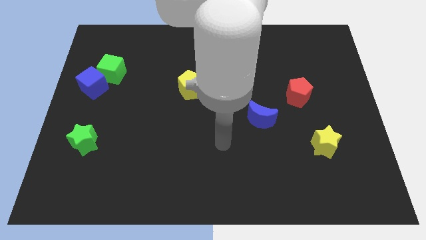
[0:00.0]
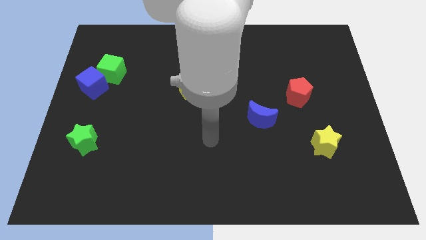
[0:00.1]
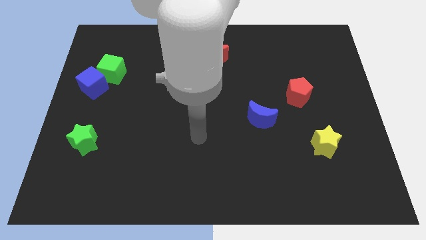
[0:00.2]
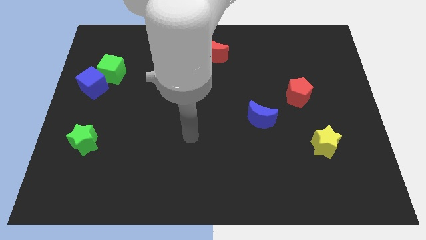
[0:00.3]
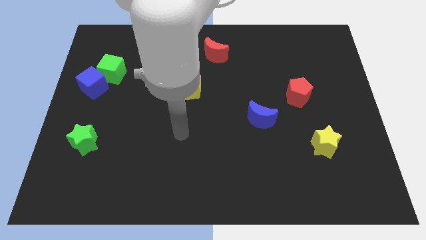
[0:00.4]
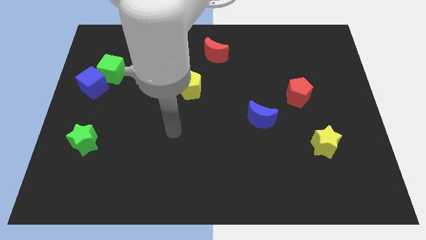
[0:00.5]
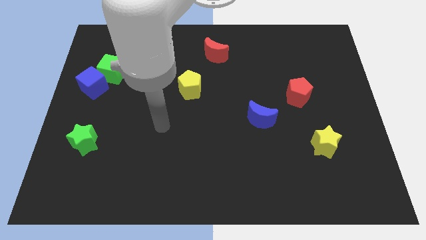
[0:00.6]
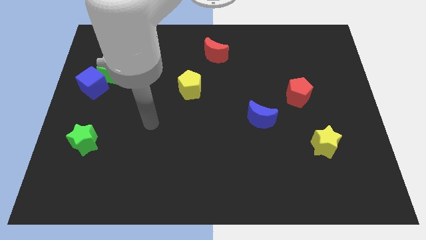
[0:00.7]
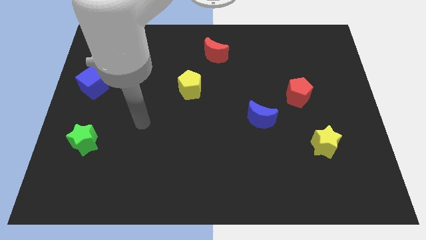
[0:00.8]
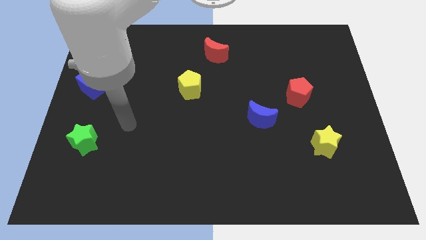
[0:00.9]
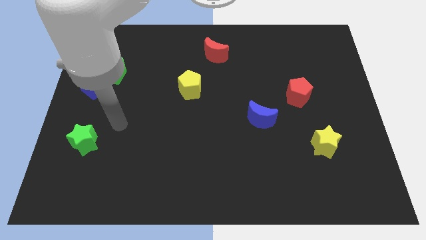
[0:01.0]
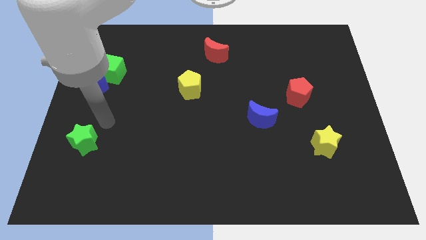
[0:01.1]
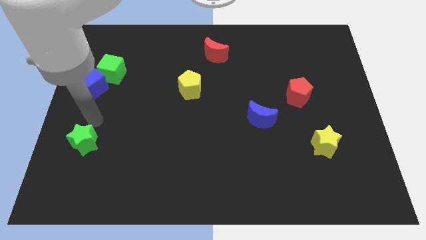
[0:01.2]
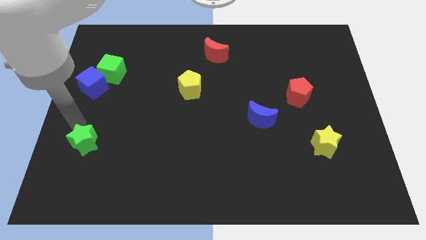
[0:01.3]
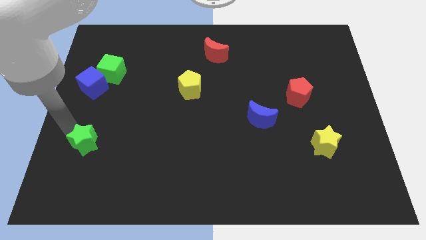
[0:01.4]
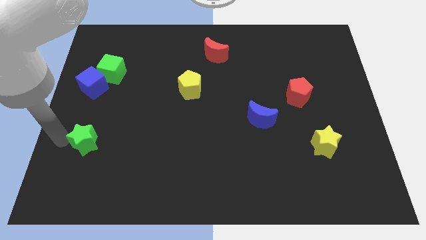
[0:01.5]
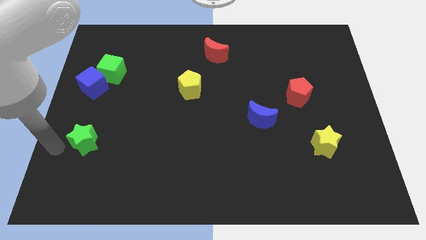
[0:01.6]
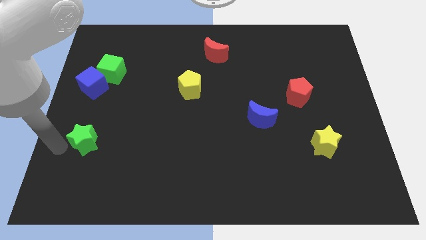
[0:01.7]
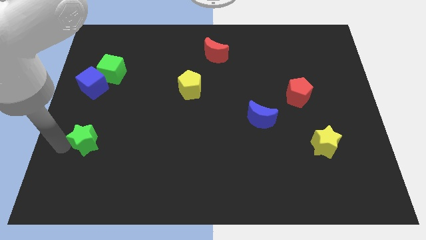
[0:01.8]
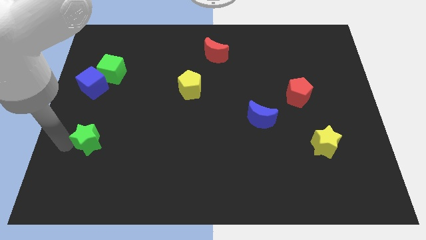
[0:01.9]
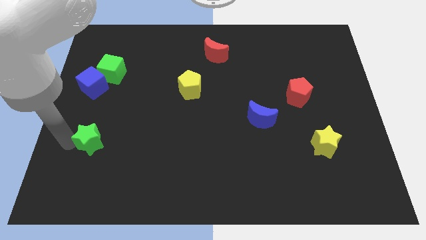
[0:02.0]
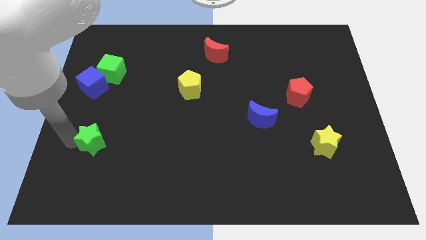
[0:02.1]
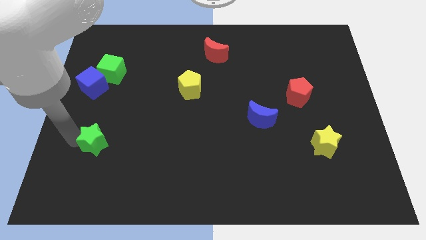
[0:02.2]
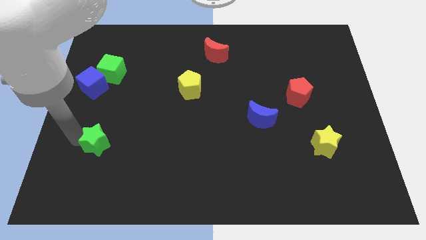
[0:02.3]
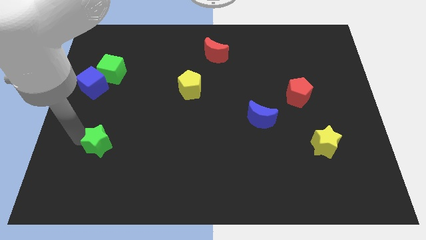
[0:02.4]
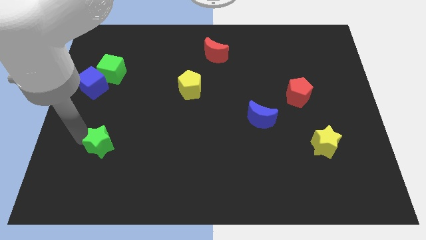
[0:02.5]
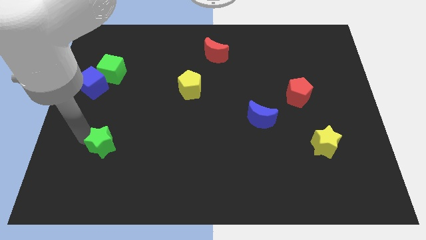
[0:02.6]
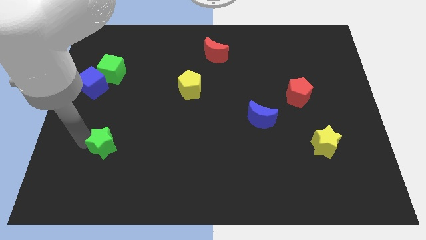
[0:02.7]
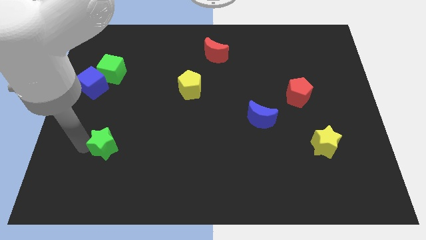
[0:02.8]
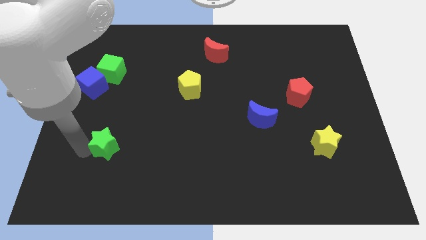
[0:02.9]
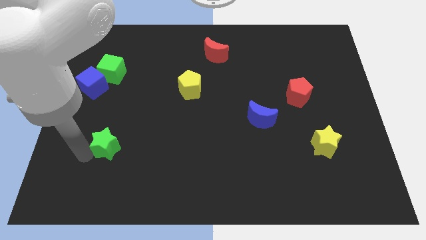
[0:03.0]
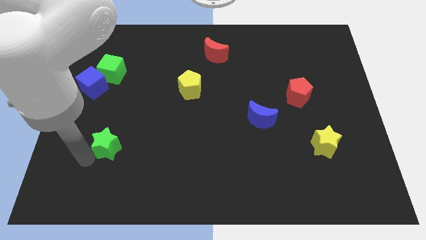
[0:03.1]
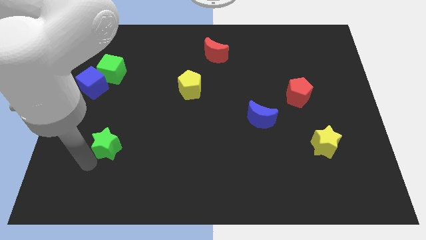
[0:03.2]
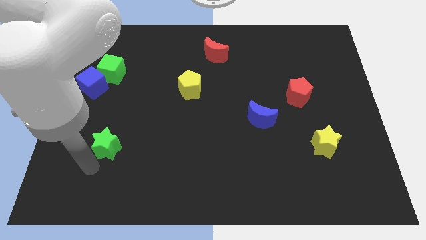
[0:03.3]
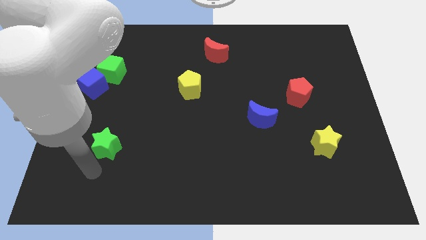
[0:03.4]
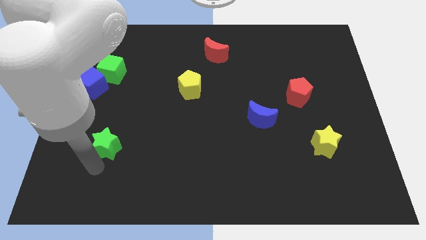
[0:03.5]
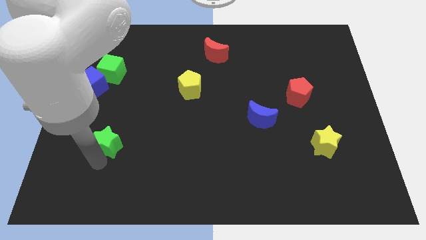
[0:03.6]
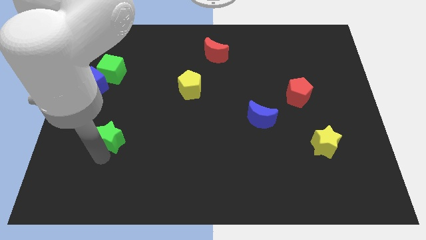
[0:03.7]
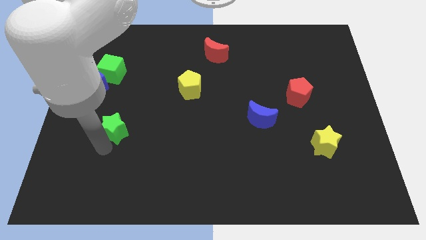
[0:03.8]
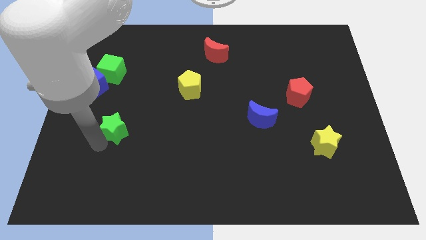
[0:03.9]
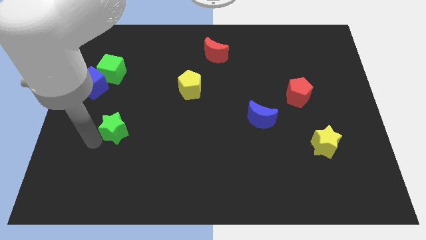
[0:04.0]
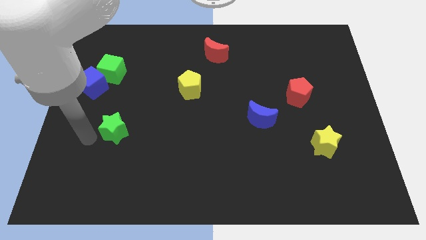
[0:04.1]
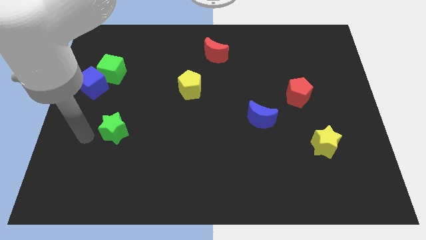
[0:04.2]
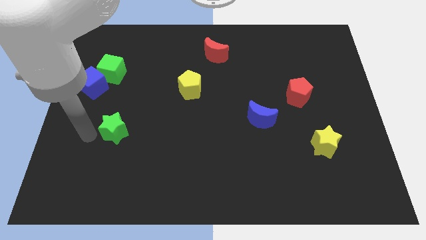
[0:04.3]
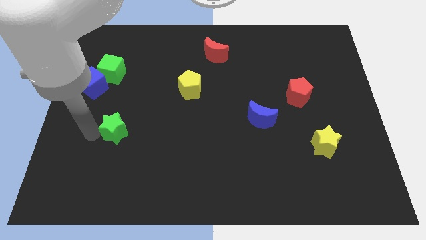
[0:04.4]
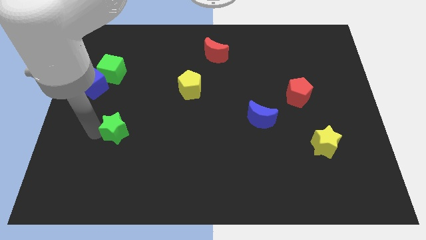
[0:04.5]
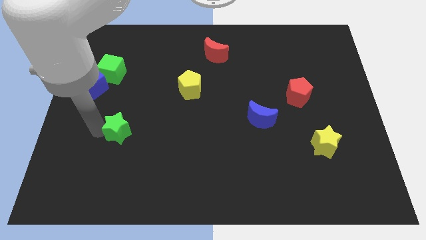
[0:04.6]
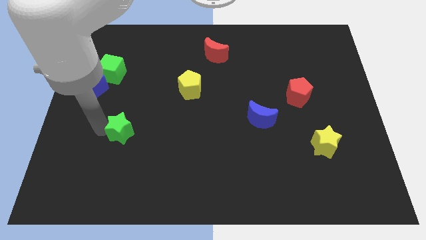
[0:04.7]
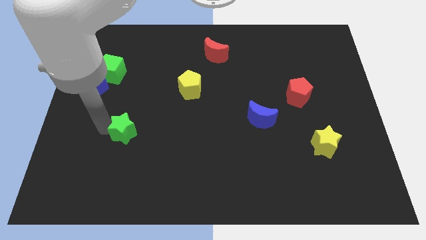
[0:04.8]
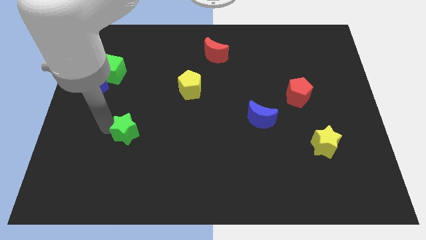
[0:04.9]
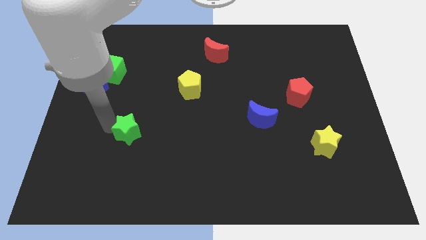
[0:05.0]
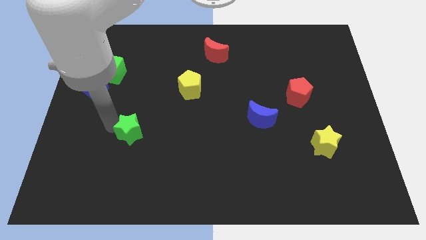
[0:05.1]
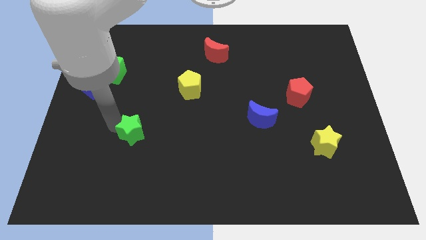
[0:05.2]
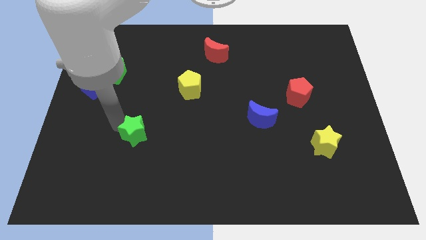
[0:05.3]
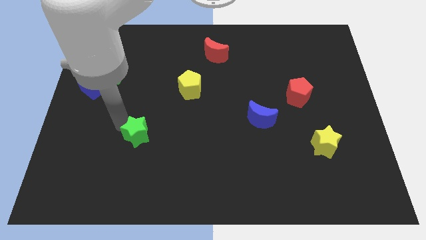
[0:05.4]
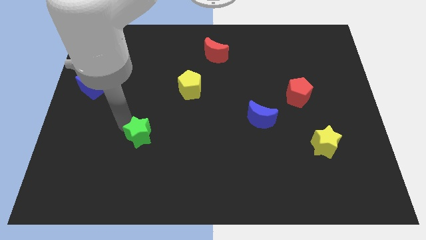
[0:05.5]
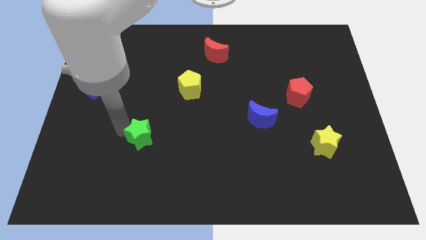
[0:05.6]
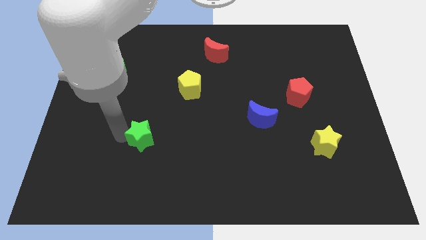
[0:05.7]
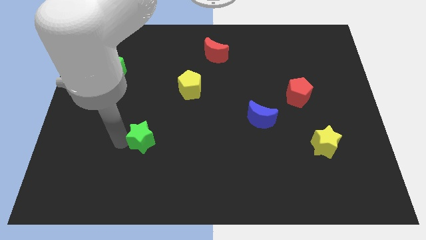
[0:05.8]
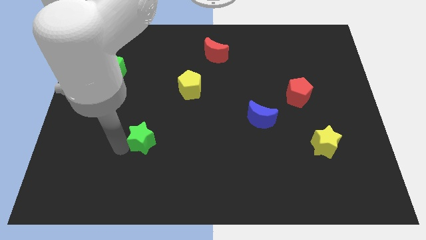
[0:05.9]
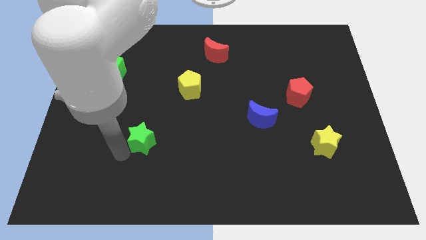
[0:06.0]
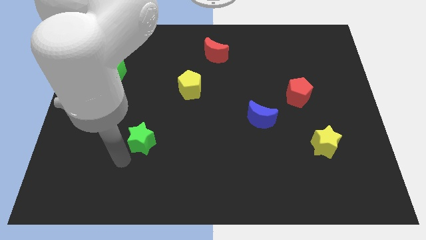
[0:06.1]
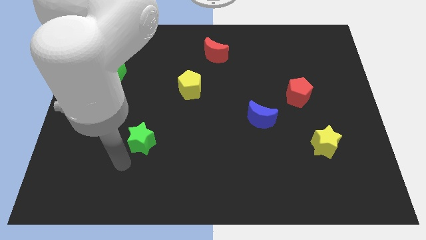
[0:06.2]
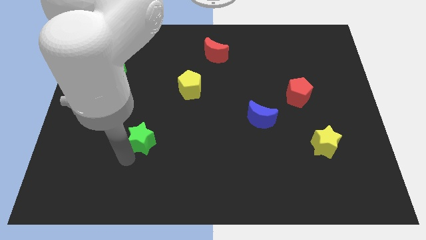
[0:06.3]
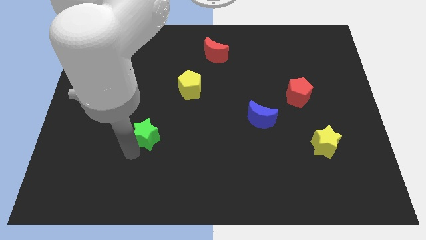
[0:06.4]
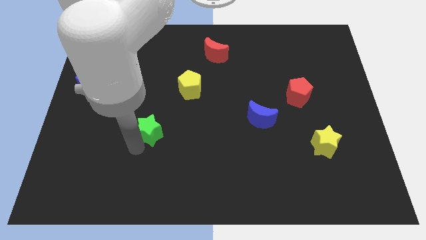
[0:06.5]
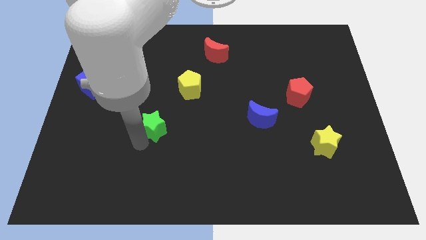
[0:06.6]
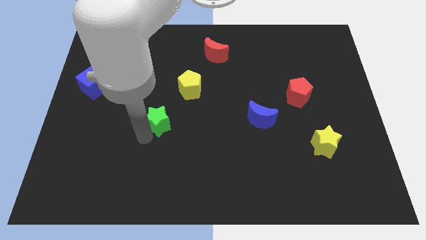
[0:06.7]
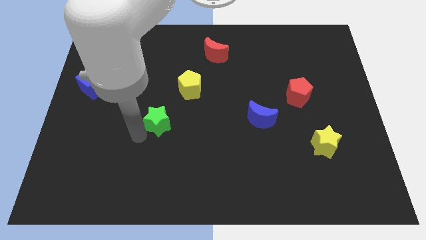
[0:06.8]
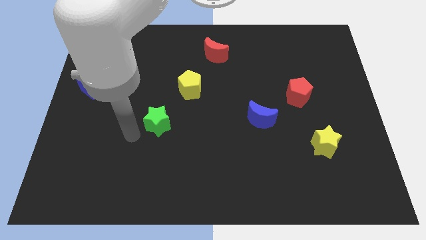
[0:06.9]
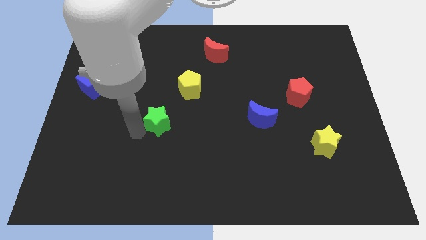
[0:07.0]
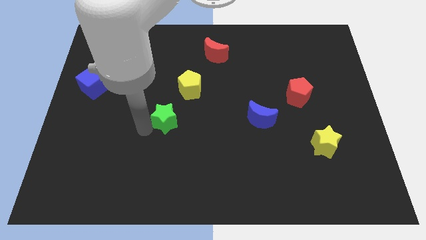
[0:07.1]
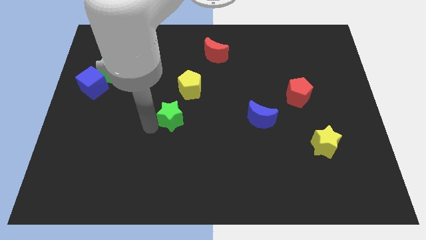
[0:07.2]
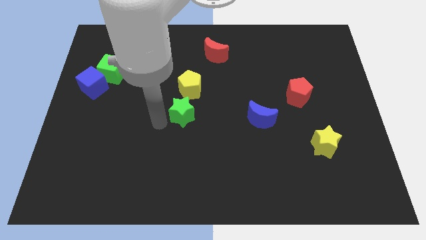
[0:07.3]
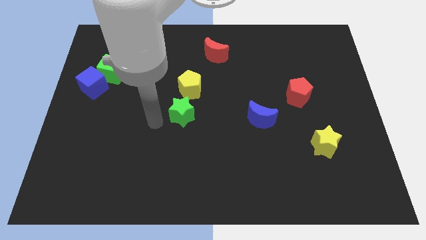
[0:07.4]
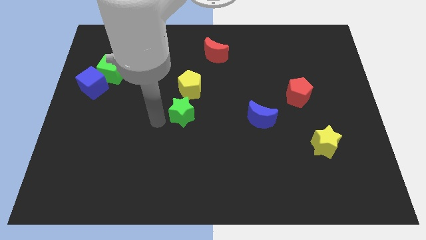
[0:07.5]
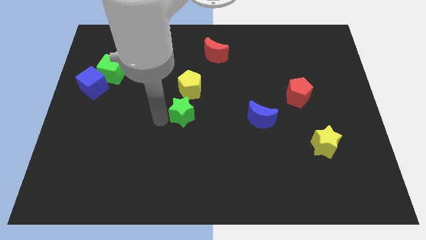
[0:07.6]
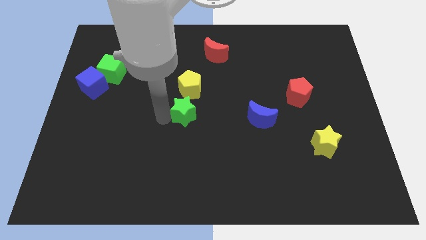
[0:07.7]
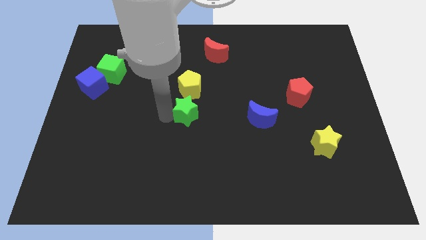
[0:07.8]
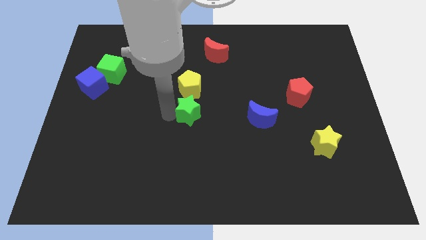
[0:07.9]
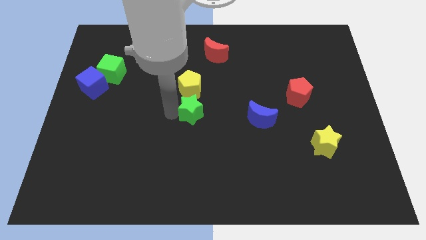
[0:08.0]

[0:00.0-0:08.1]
move the green star to the bottom right side of the yellow pentagon

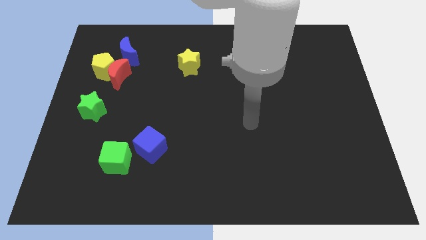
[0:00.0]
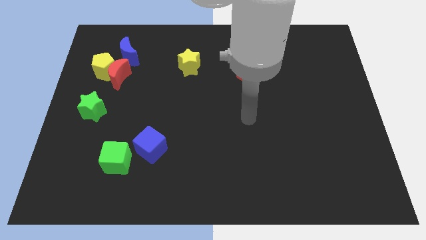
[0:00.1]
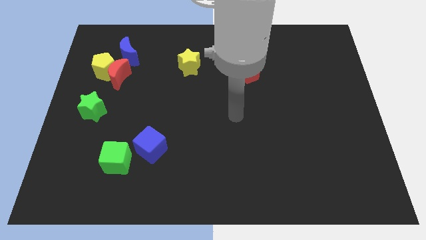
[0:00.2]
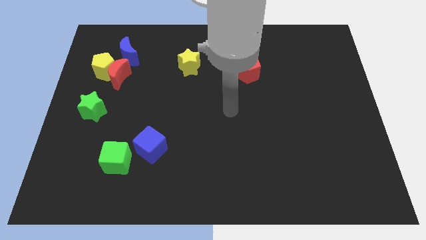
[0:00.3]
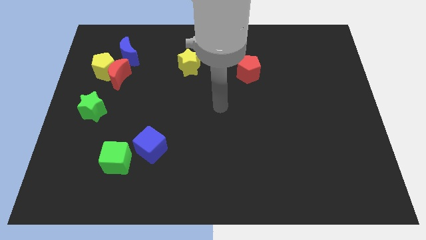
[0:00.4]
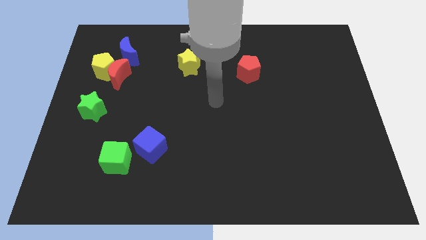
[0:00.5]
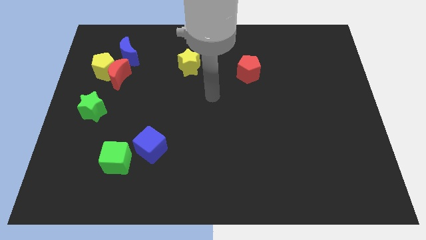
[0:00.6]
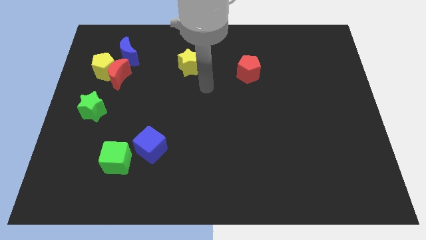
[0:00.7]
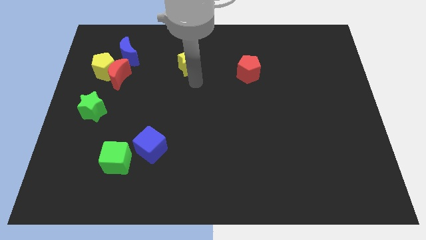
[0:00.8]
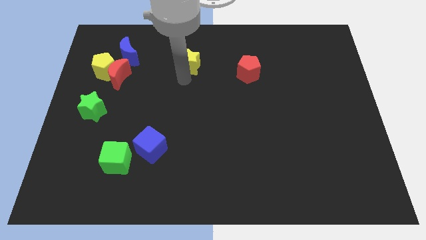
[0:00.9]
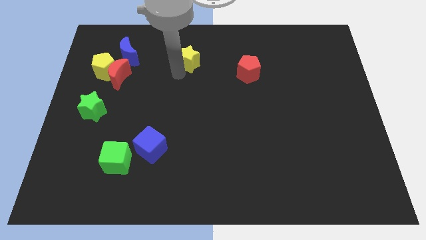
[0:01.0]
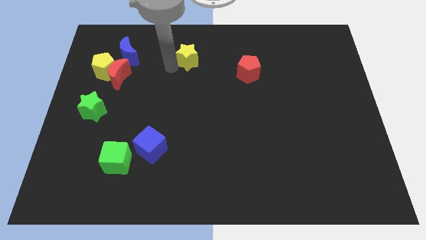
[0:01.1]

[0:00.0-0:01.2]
push the blue moon left of the yellow star
